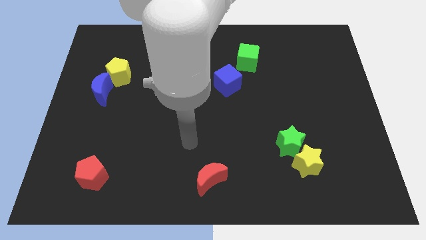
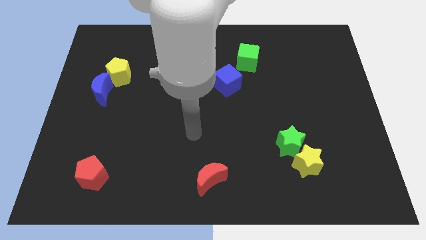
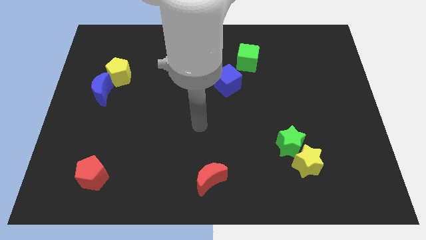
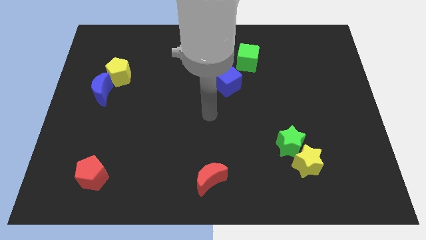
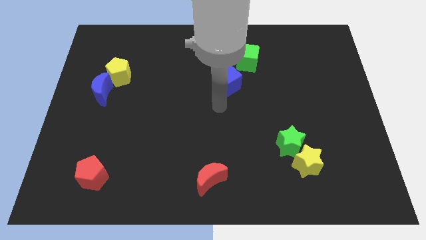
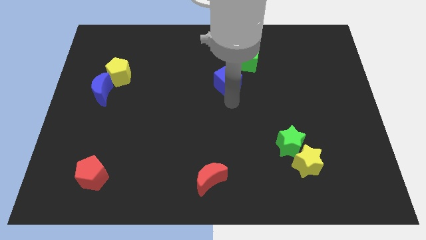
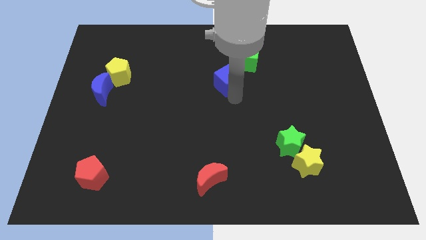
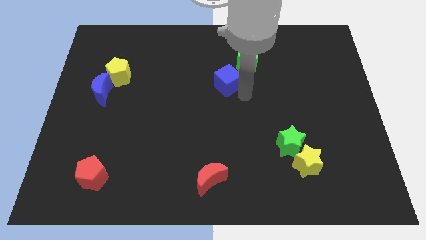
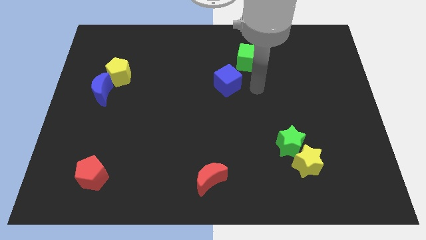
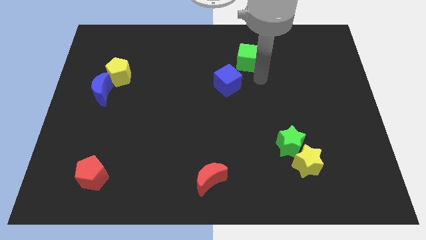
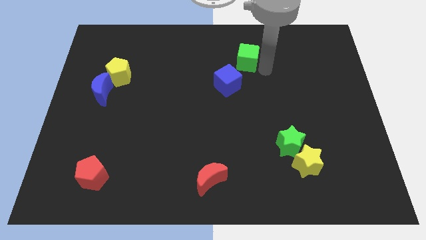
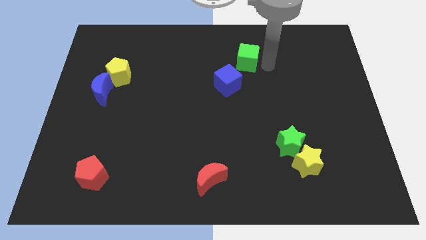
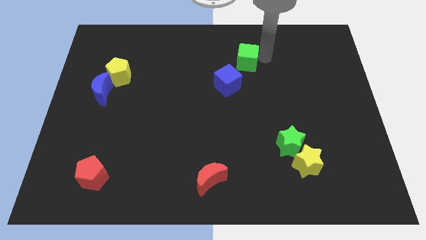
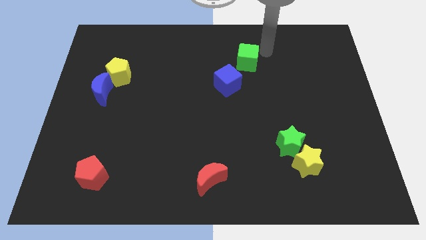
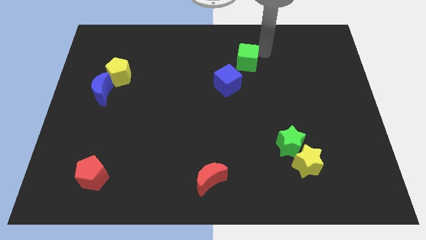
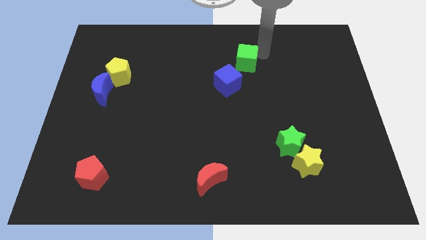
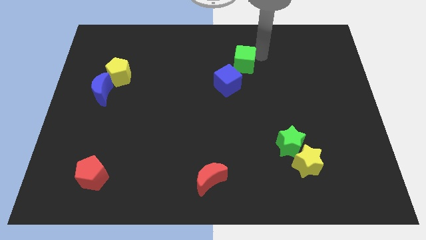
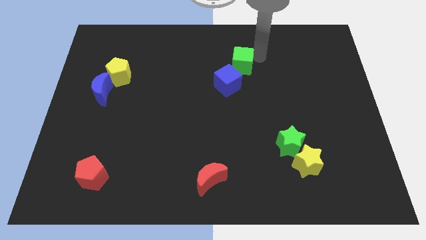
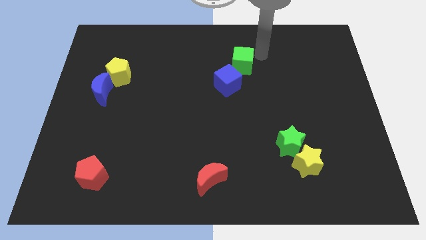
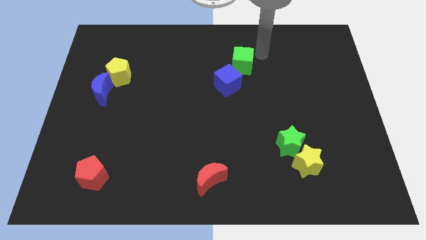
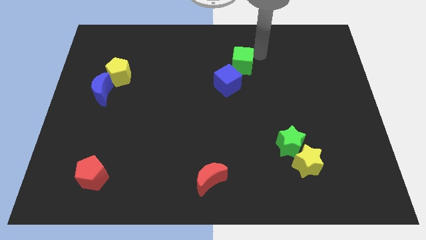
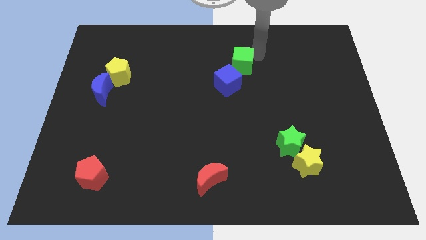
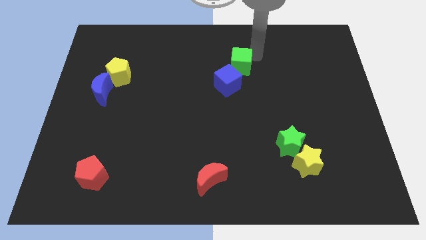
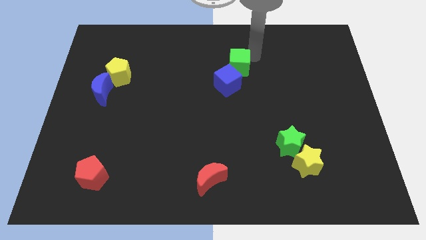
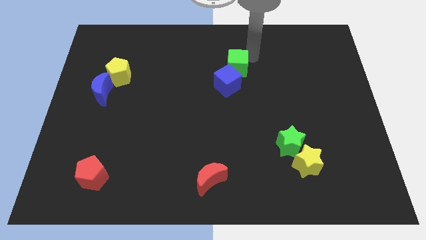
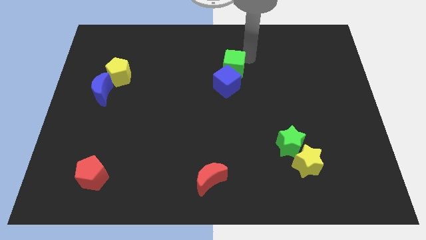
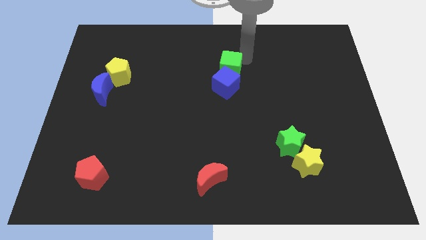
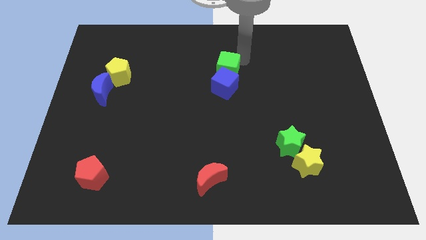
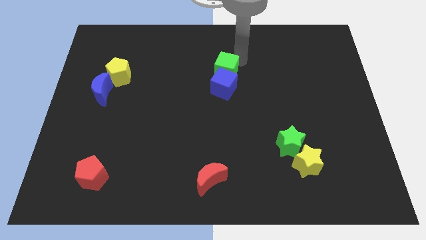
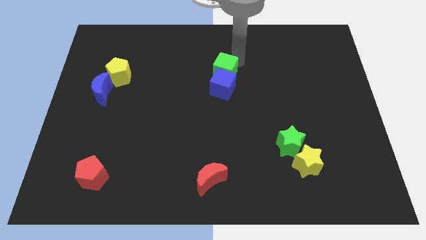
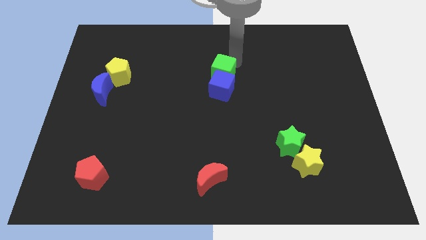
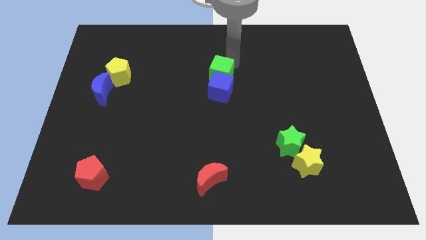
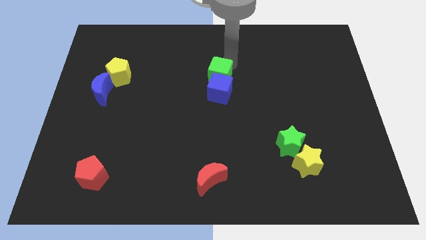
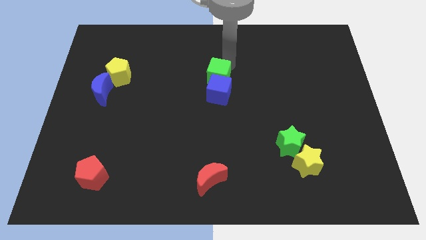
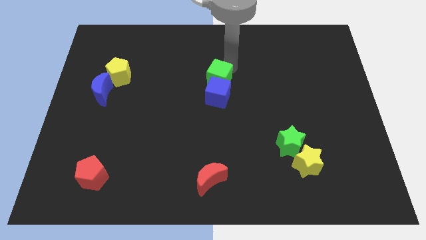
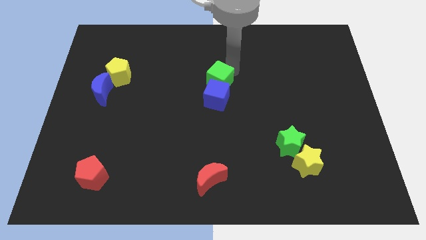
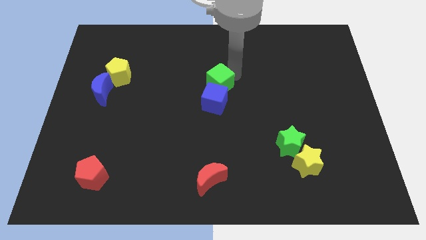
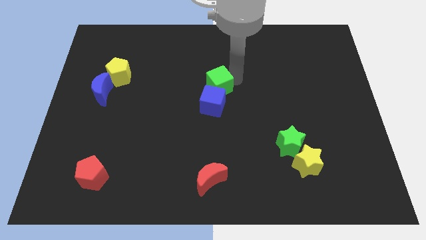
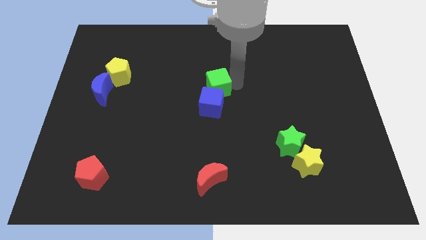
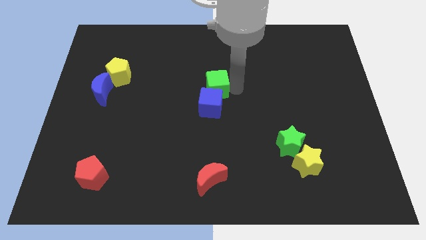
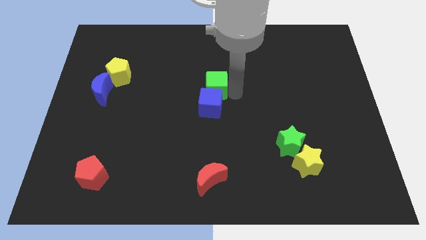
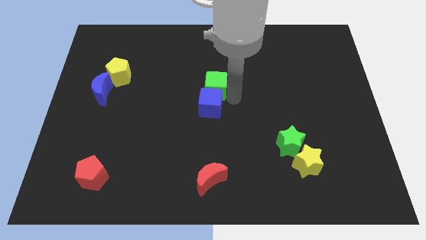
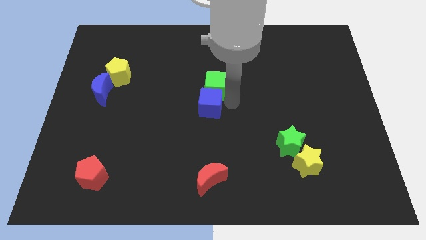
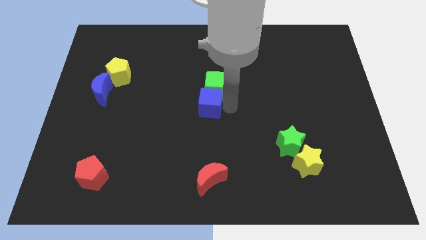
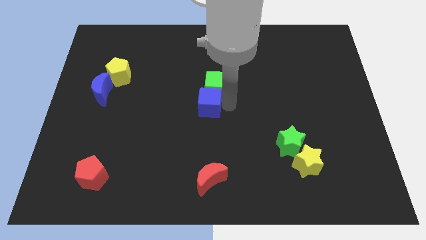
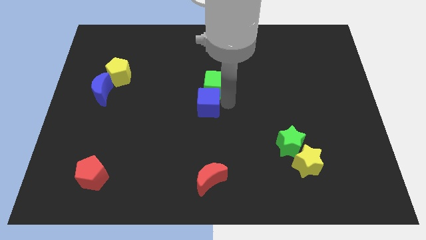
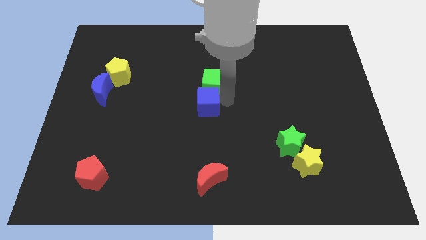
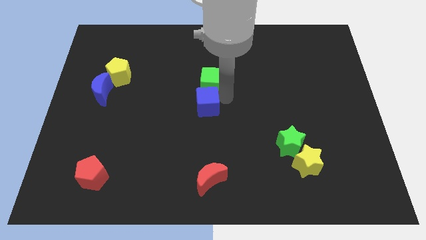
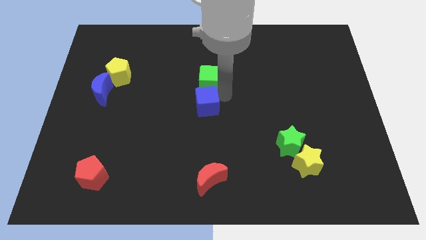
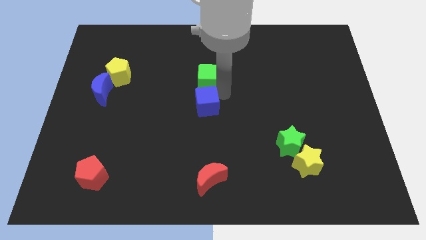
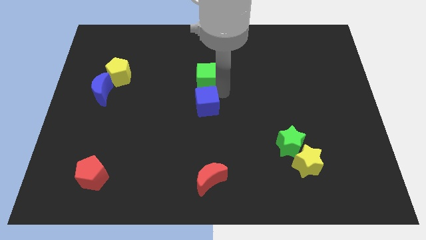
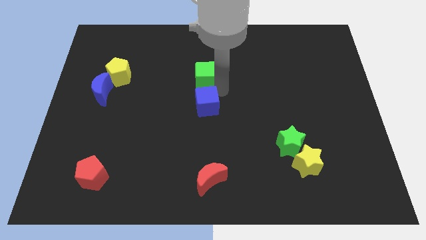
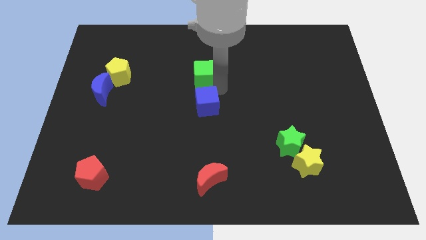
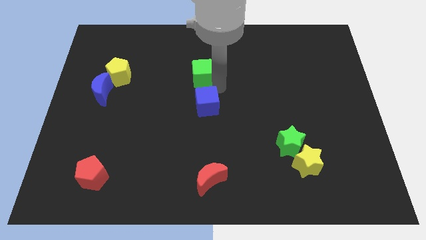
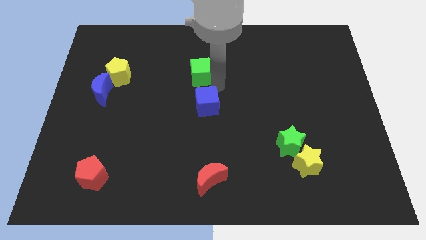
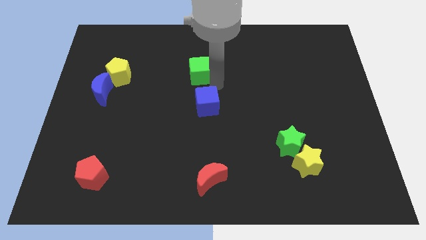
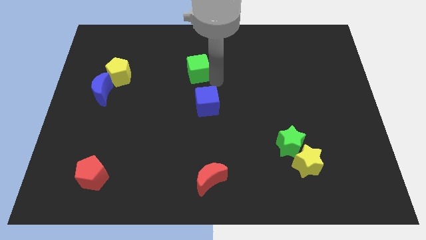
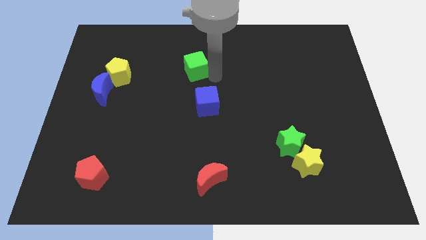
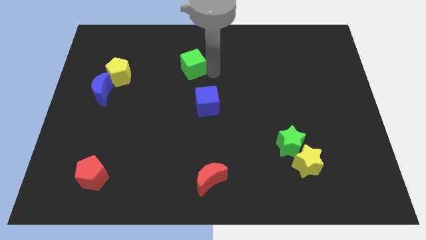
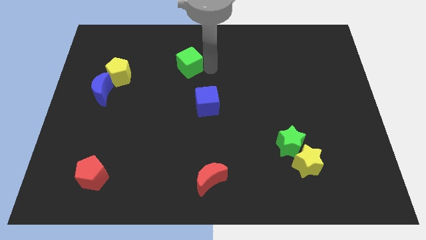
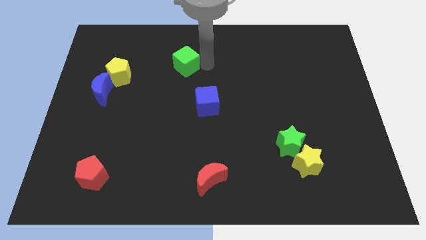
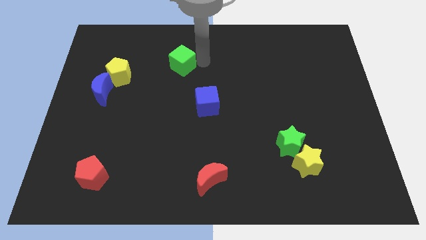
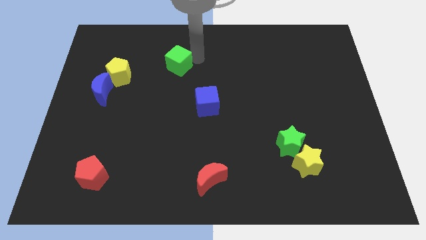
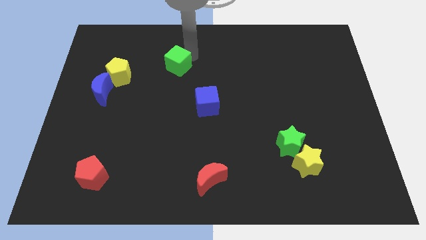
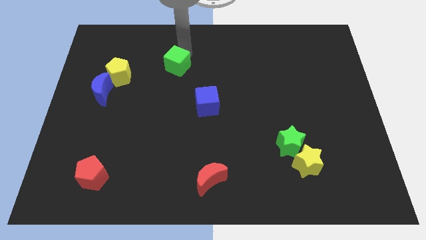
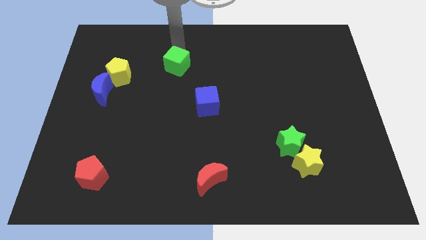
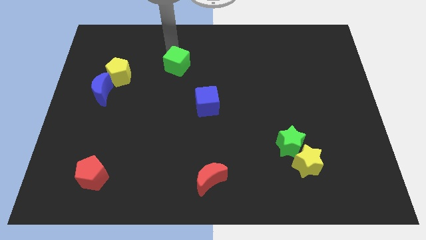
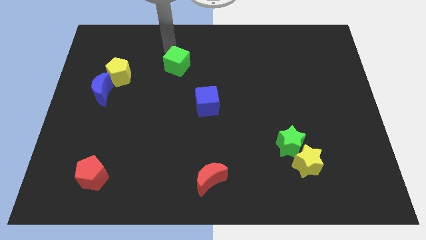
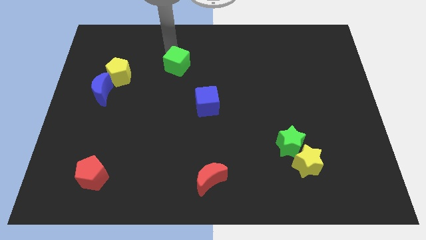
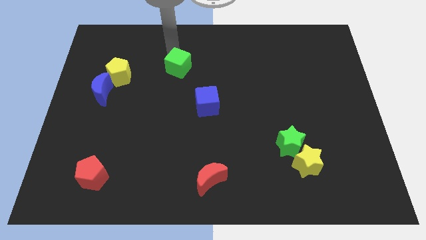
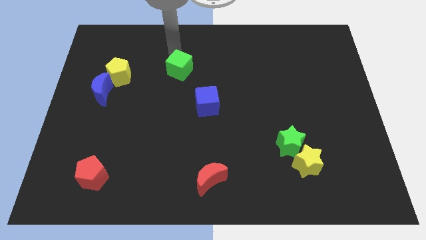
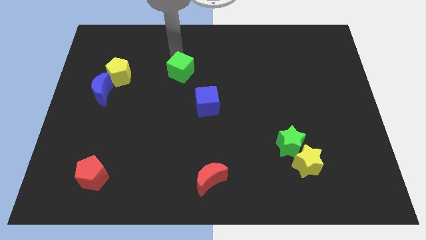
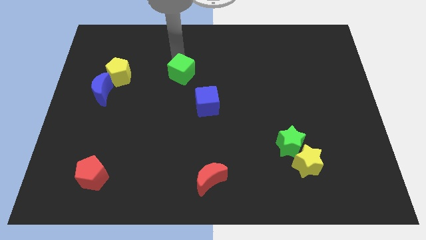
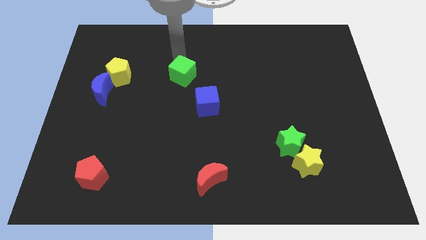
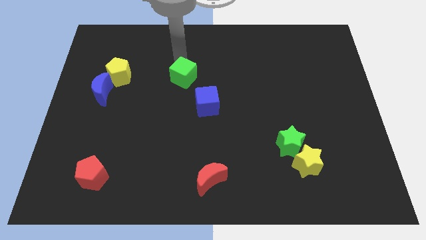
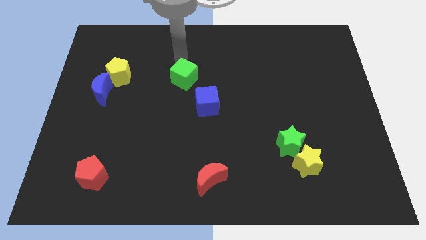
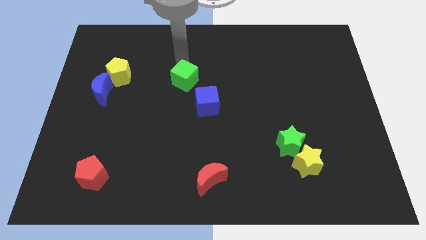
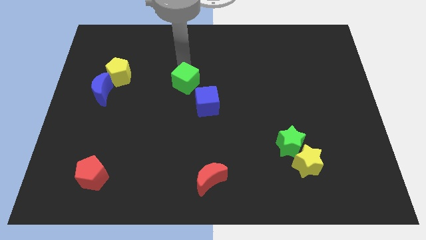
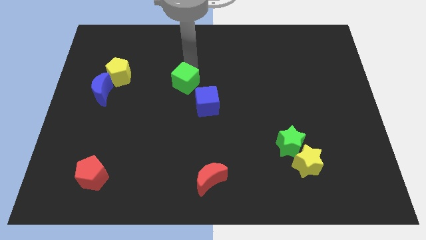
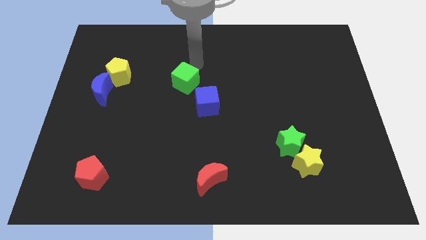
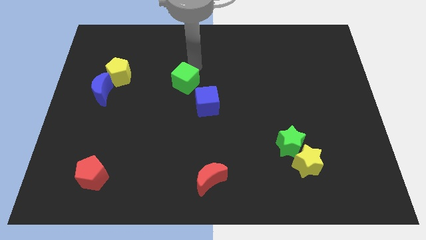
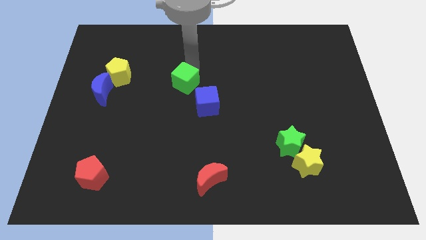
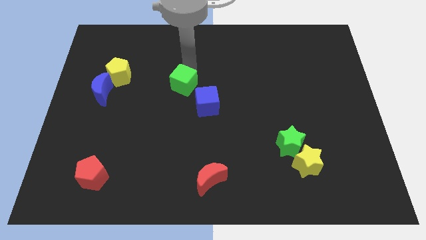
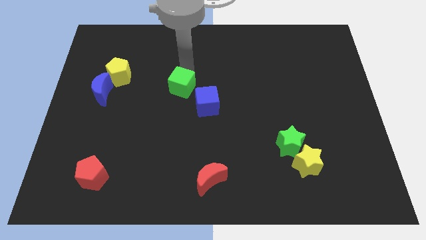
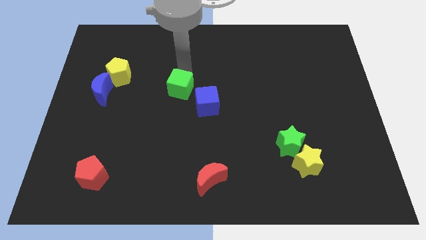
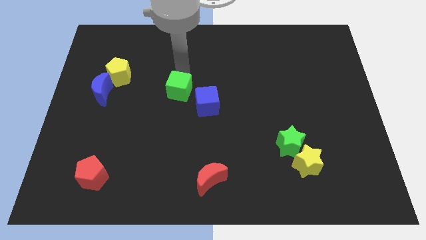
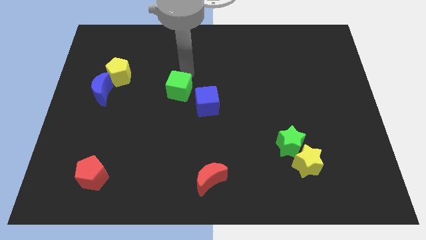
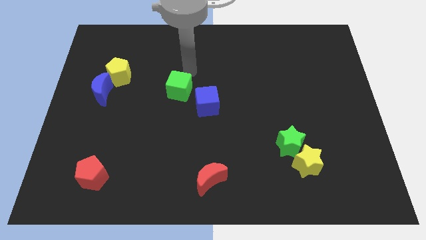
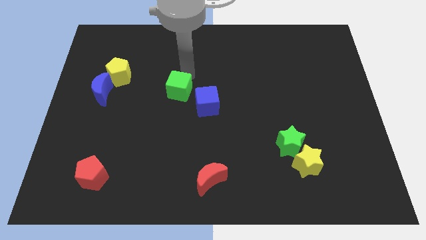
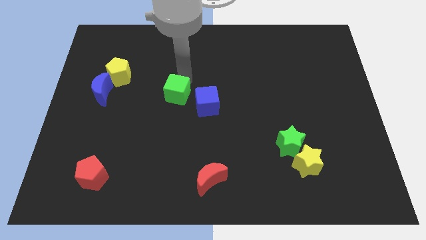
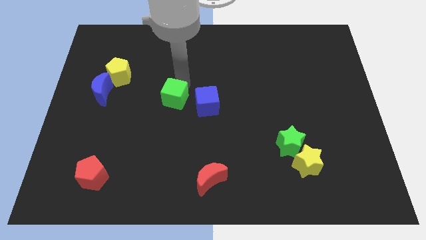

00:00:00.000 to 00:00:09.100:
push the green cube down and left
